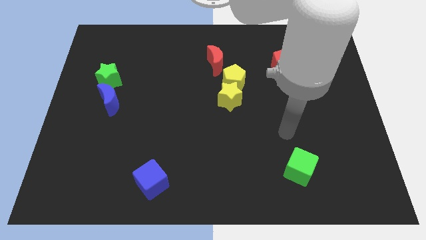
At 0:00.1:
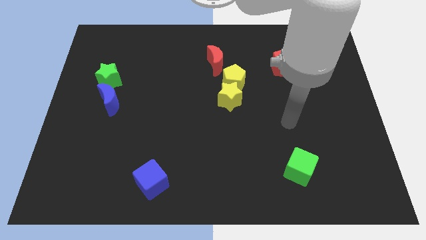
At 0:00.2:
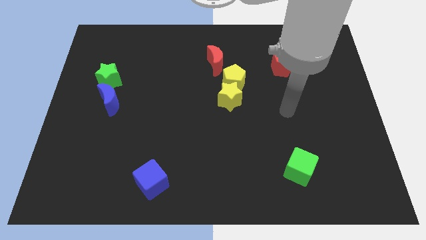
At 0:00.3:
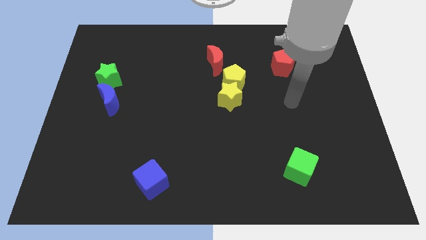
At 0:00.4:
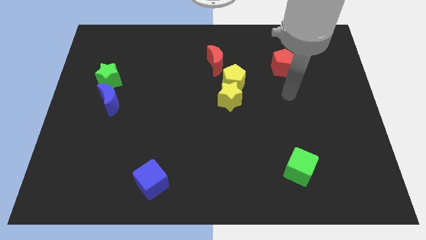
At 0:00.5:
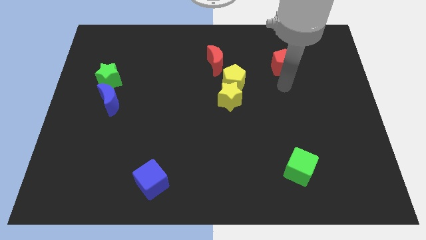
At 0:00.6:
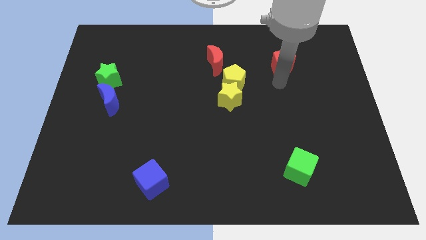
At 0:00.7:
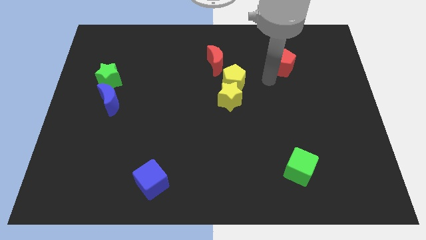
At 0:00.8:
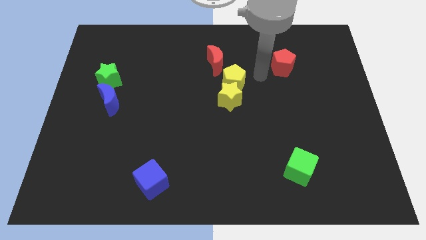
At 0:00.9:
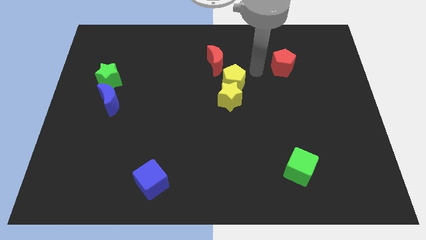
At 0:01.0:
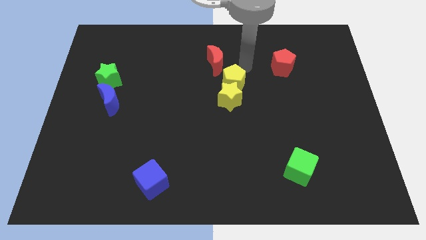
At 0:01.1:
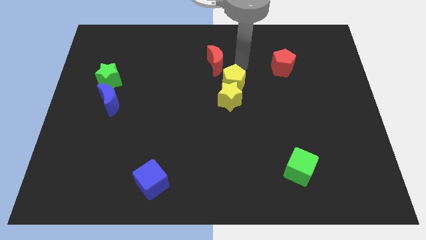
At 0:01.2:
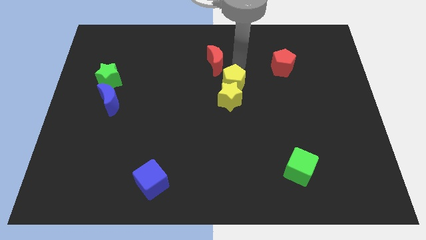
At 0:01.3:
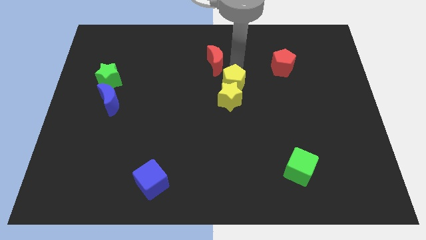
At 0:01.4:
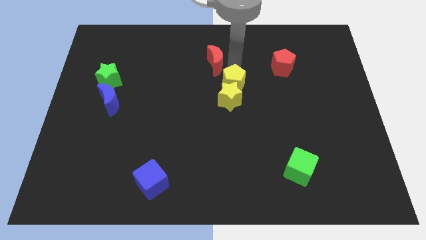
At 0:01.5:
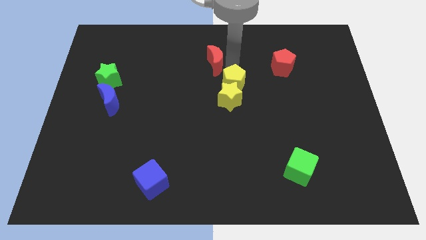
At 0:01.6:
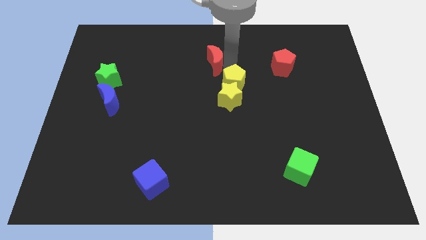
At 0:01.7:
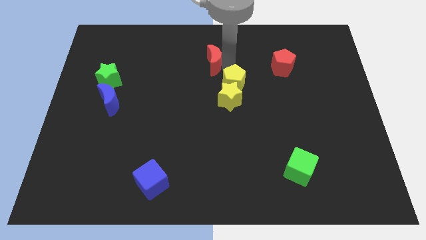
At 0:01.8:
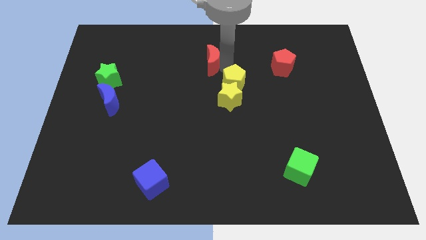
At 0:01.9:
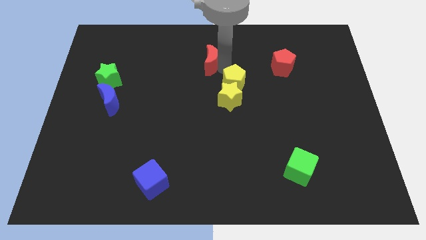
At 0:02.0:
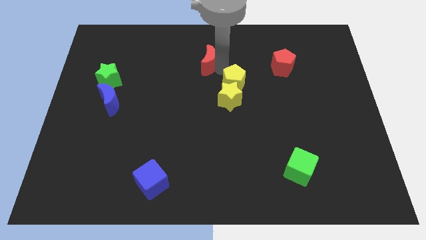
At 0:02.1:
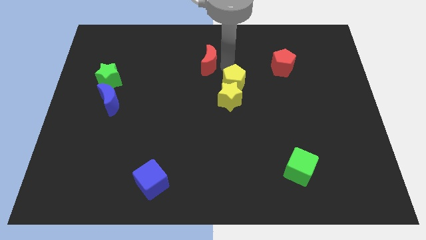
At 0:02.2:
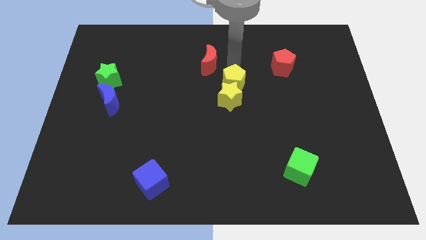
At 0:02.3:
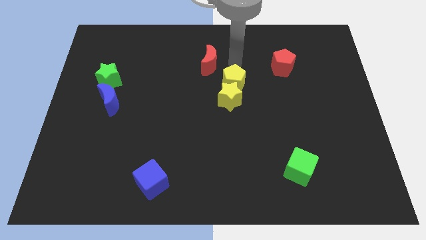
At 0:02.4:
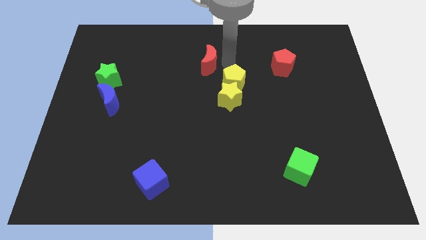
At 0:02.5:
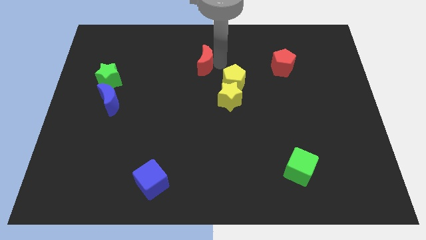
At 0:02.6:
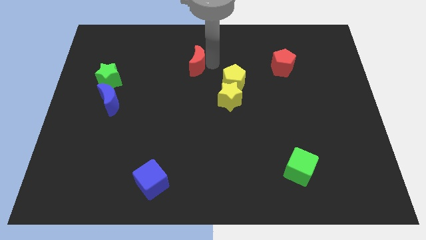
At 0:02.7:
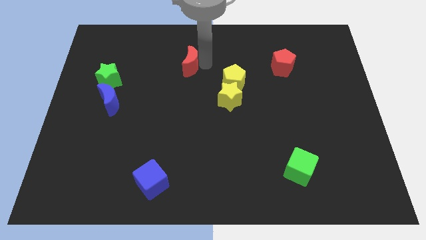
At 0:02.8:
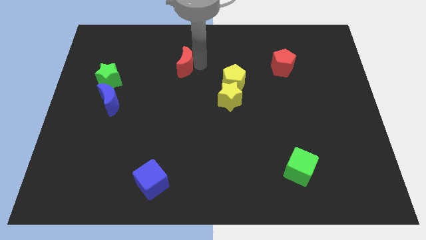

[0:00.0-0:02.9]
move the red moon to the left somewhat

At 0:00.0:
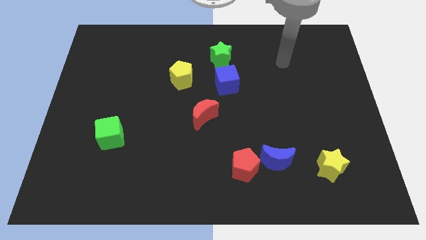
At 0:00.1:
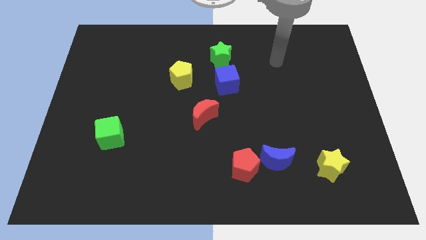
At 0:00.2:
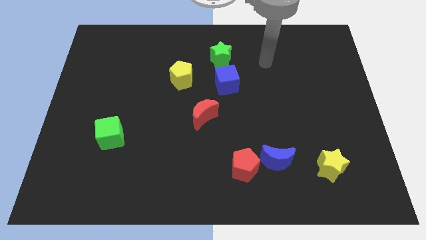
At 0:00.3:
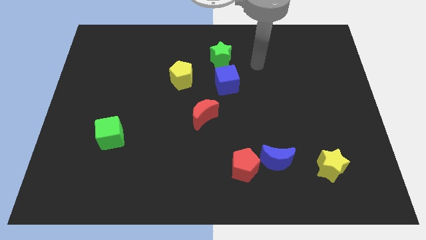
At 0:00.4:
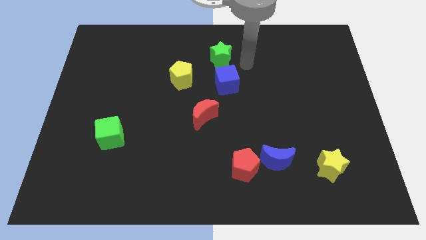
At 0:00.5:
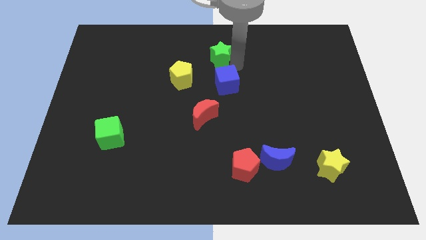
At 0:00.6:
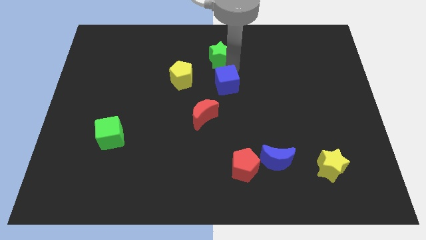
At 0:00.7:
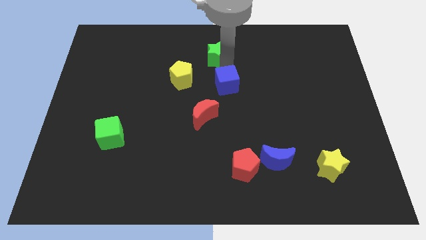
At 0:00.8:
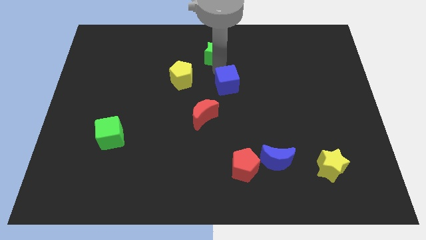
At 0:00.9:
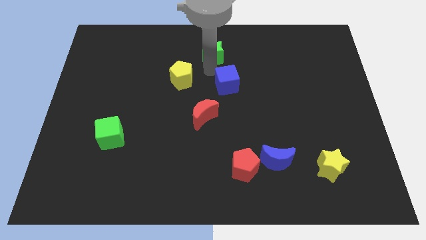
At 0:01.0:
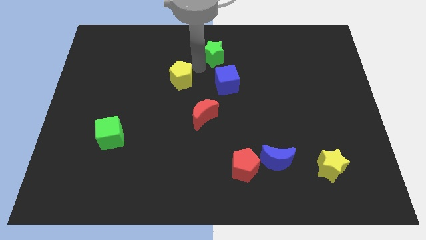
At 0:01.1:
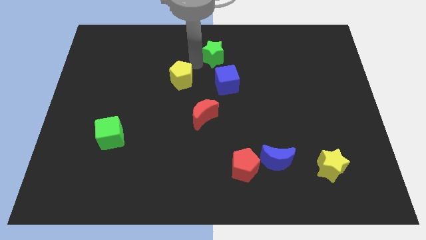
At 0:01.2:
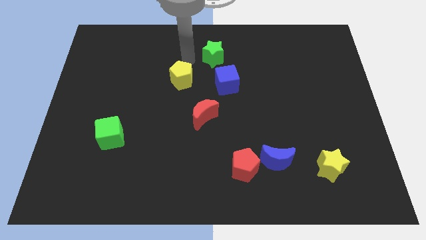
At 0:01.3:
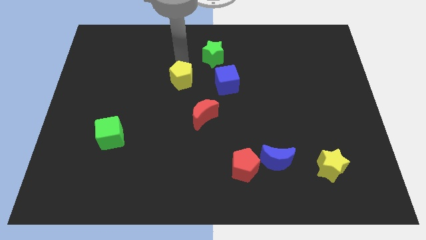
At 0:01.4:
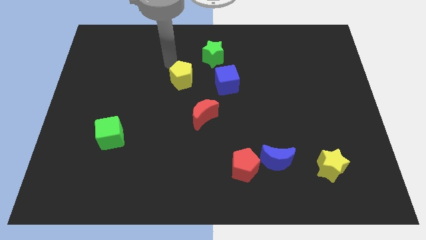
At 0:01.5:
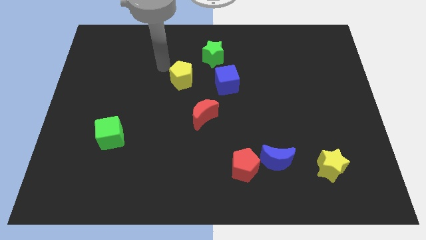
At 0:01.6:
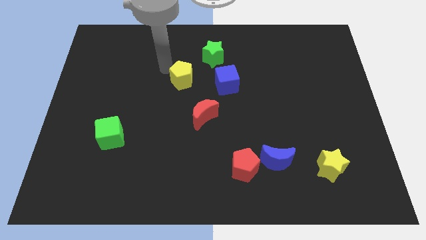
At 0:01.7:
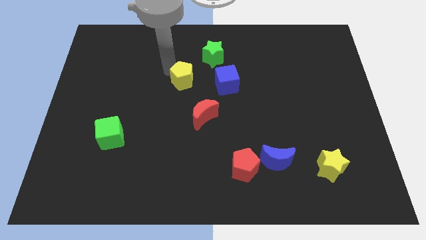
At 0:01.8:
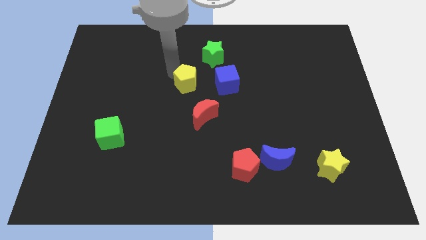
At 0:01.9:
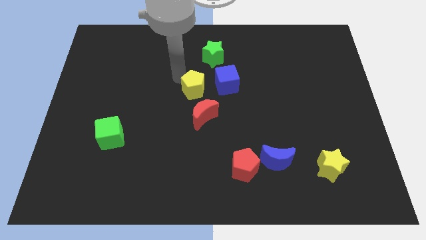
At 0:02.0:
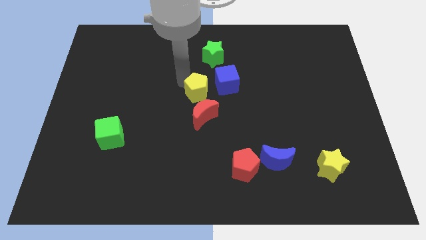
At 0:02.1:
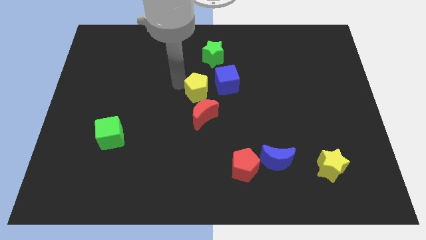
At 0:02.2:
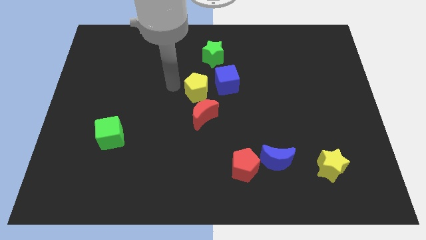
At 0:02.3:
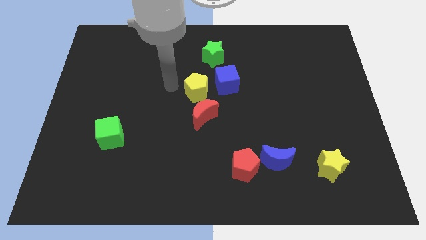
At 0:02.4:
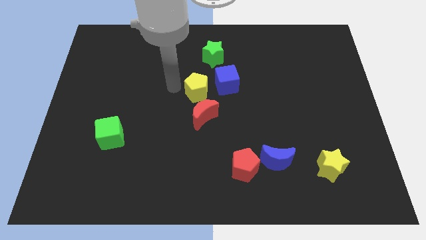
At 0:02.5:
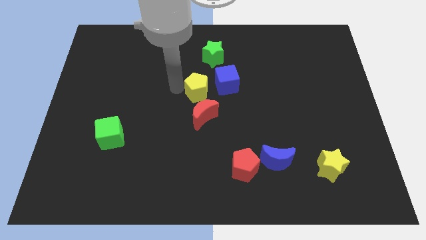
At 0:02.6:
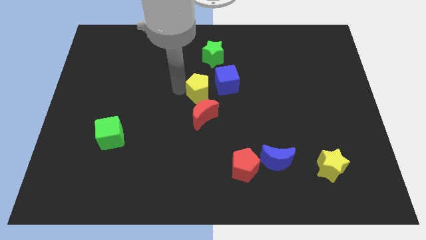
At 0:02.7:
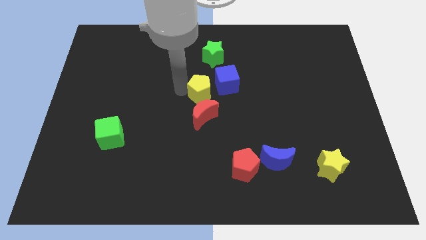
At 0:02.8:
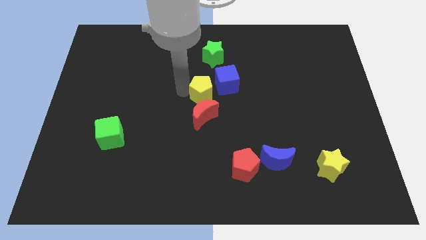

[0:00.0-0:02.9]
push the yellow pentagon slightly down and then right

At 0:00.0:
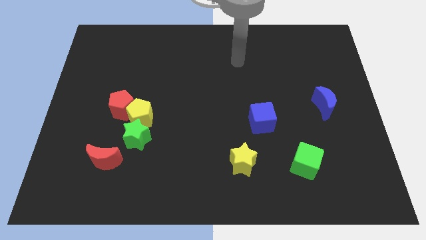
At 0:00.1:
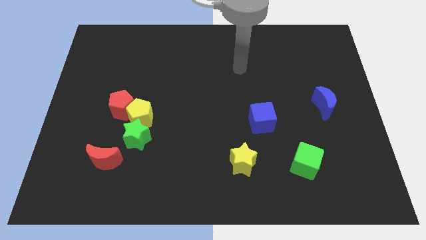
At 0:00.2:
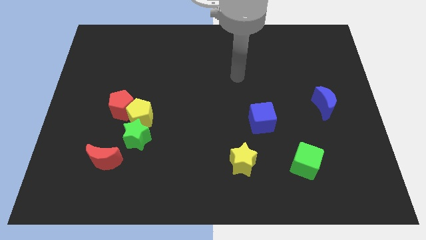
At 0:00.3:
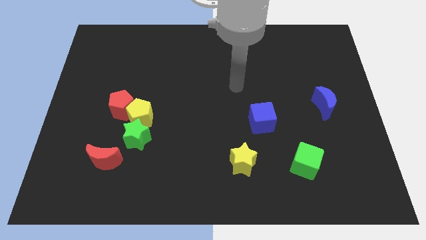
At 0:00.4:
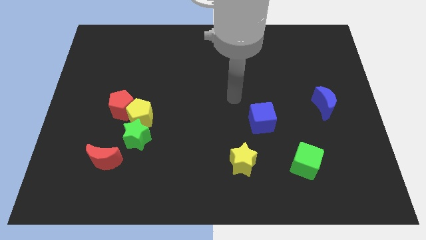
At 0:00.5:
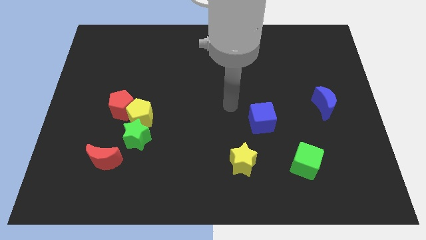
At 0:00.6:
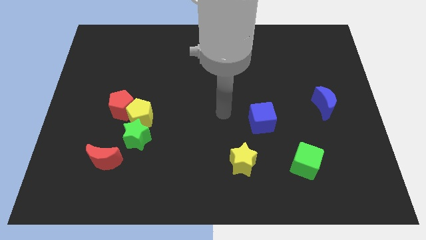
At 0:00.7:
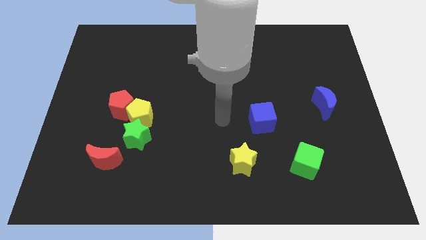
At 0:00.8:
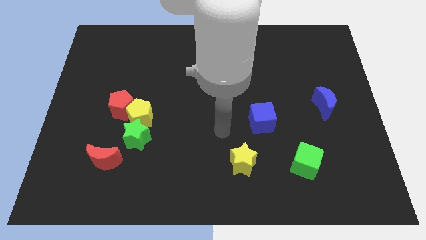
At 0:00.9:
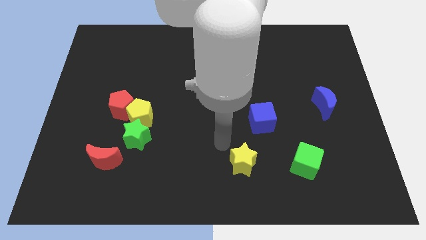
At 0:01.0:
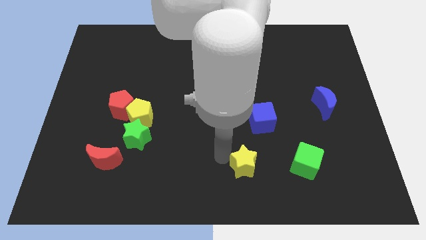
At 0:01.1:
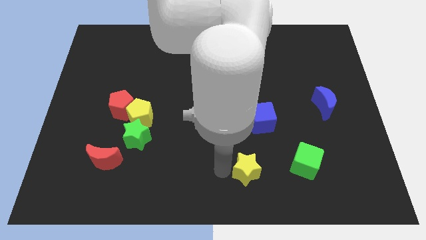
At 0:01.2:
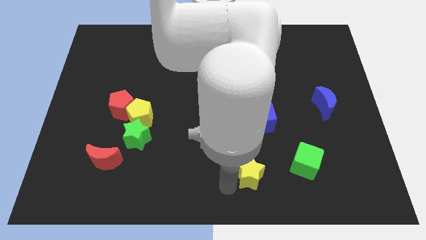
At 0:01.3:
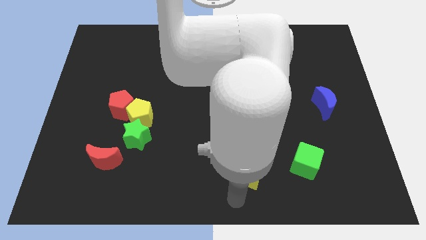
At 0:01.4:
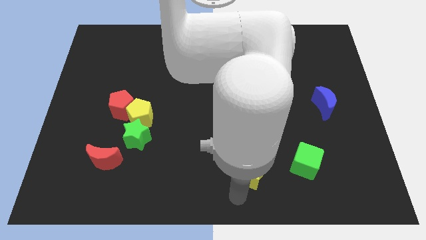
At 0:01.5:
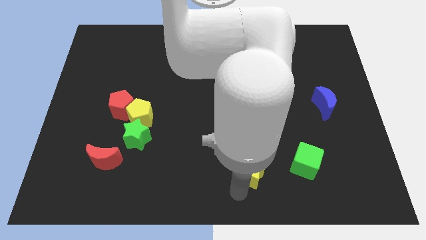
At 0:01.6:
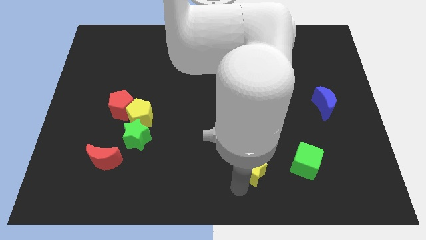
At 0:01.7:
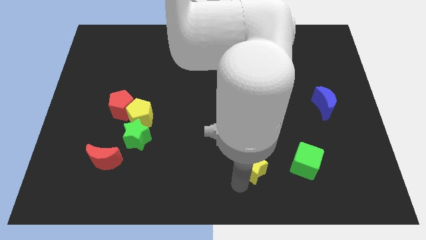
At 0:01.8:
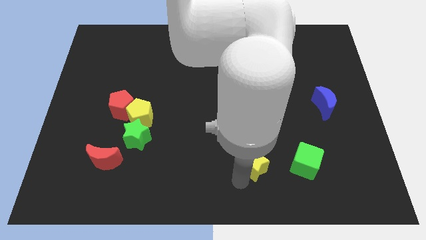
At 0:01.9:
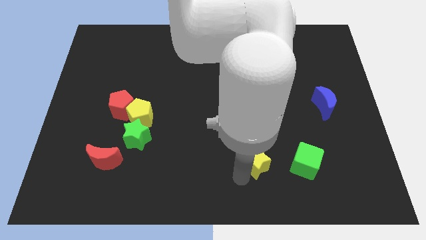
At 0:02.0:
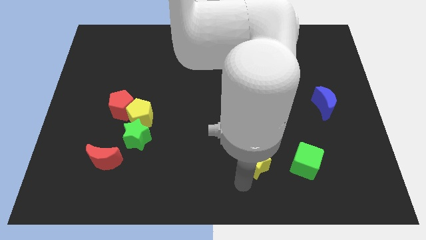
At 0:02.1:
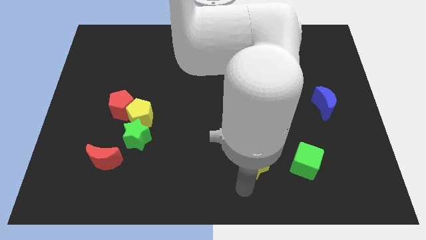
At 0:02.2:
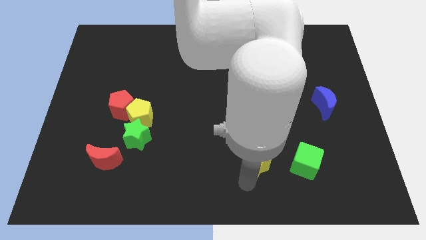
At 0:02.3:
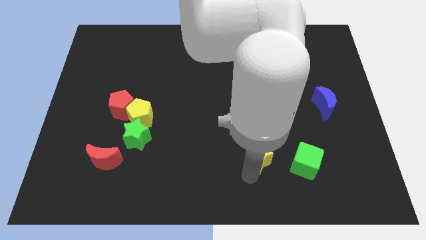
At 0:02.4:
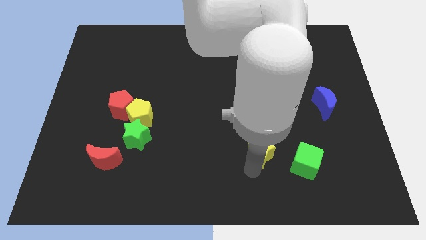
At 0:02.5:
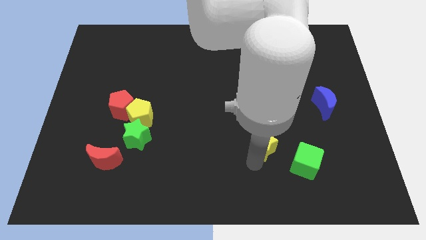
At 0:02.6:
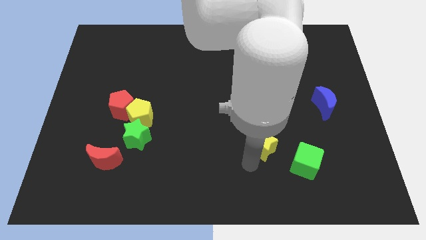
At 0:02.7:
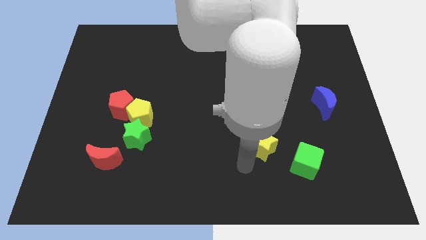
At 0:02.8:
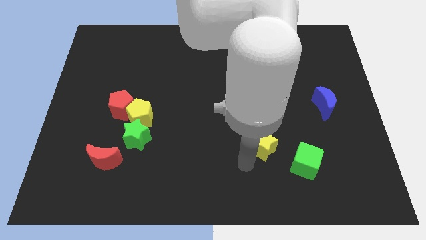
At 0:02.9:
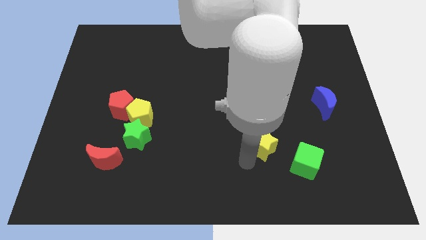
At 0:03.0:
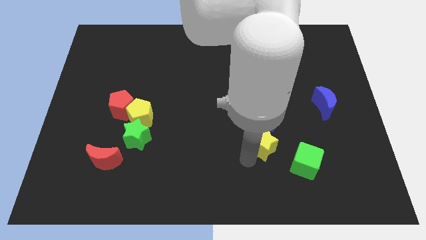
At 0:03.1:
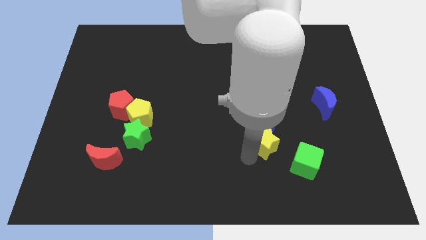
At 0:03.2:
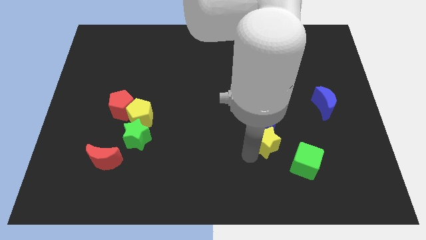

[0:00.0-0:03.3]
slightly slide the yellow star upwards and to the right
